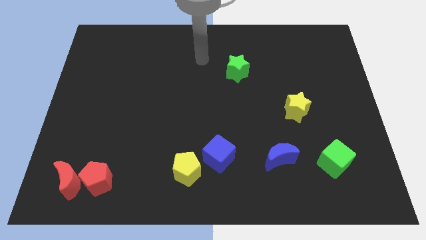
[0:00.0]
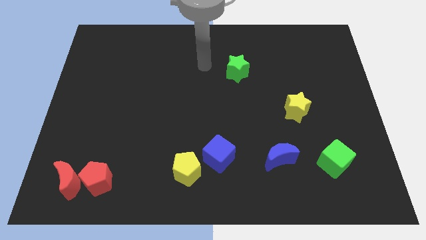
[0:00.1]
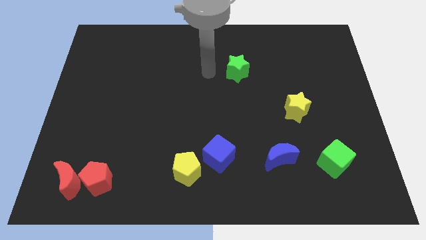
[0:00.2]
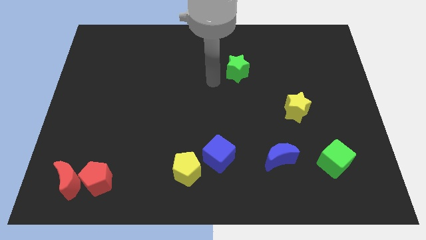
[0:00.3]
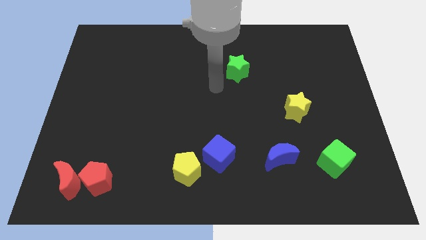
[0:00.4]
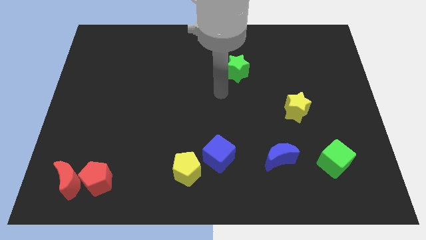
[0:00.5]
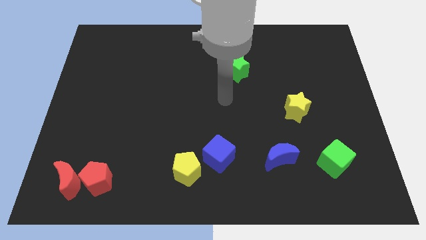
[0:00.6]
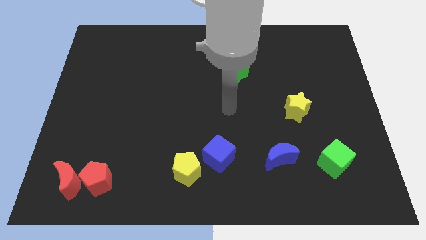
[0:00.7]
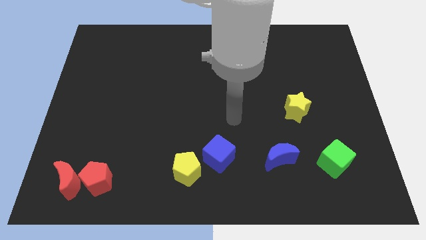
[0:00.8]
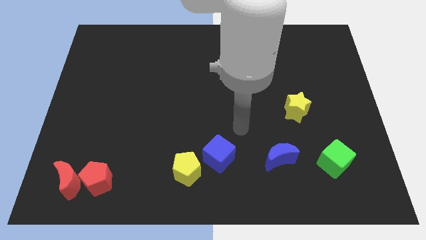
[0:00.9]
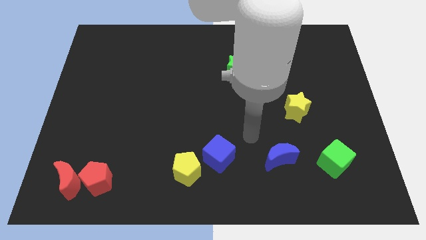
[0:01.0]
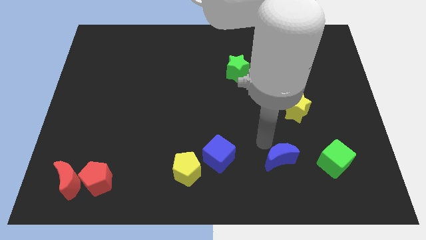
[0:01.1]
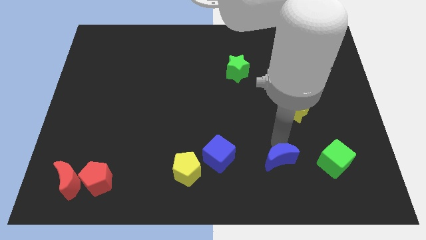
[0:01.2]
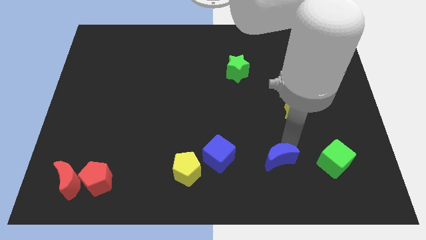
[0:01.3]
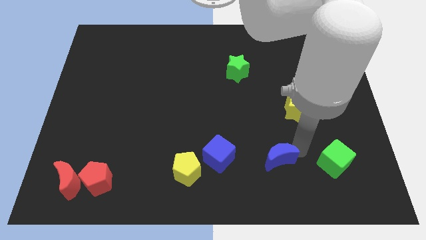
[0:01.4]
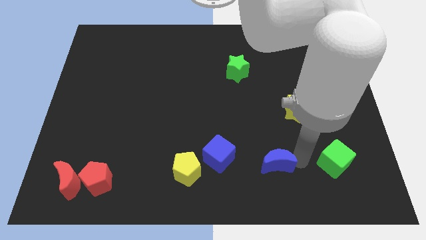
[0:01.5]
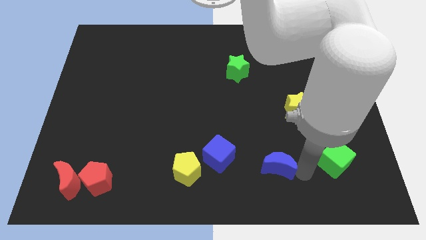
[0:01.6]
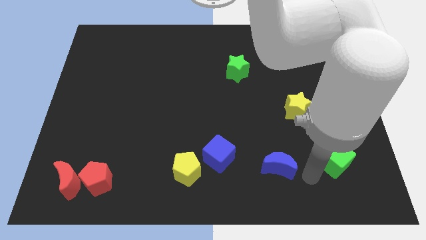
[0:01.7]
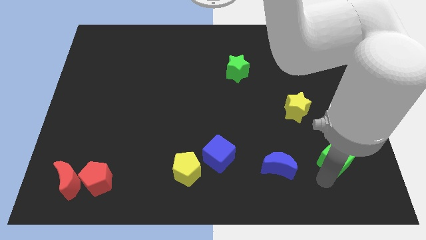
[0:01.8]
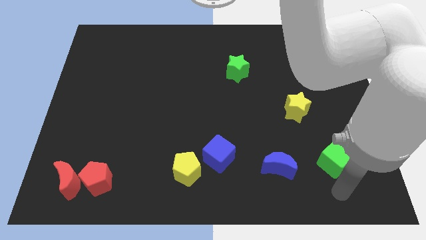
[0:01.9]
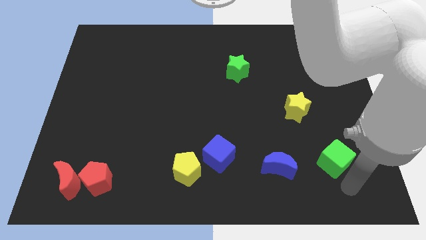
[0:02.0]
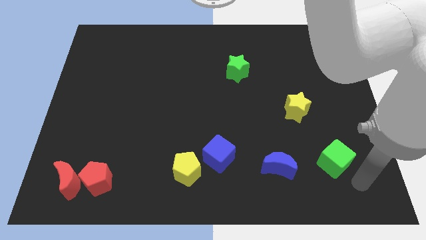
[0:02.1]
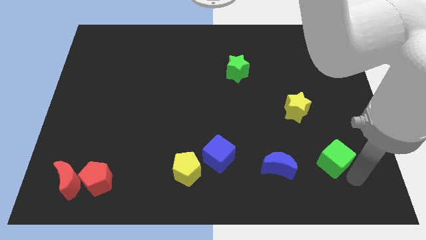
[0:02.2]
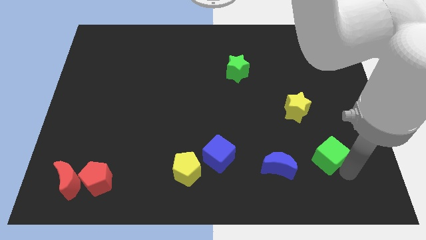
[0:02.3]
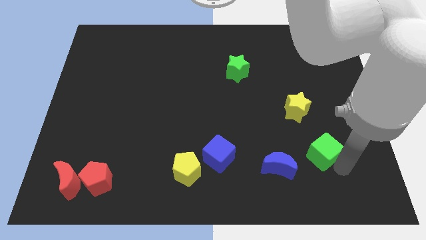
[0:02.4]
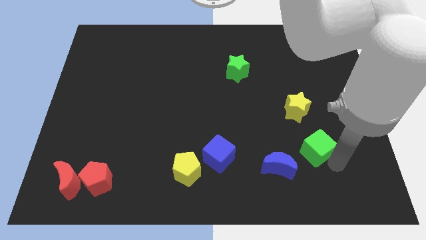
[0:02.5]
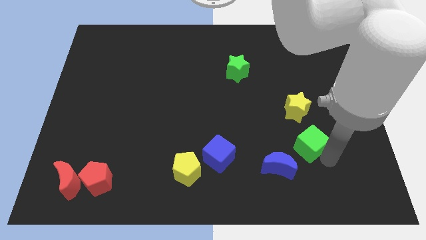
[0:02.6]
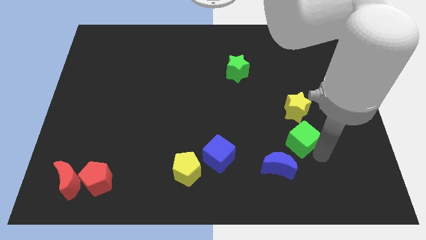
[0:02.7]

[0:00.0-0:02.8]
move the green cube slightly up and to the left diagonally

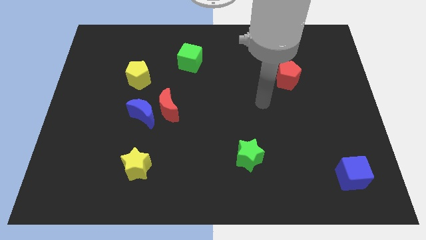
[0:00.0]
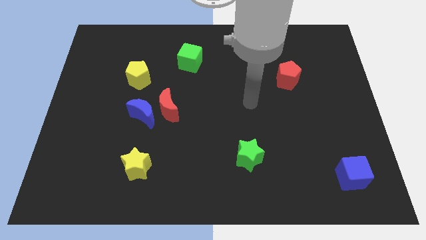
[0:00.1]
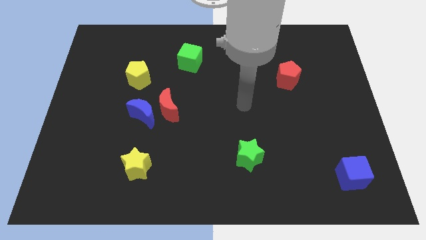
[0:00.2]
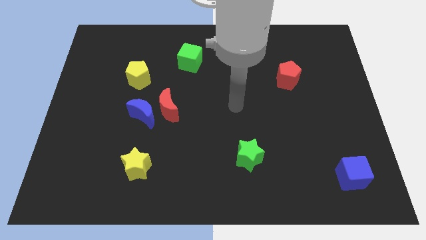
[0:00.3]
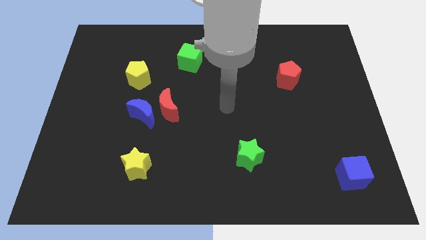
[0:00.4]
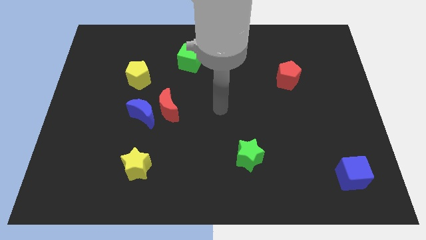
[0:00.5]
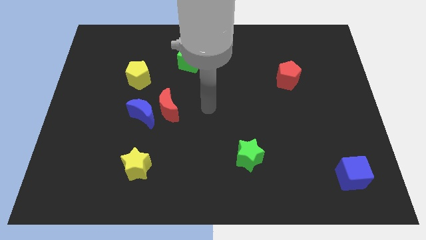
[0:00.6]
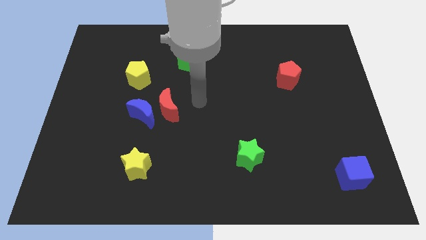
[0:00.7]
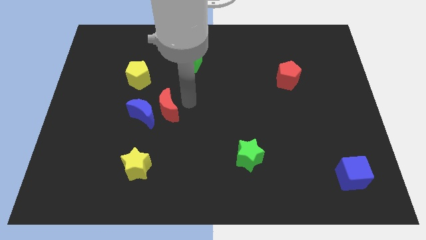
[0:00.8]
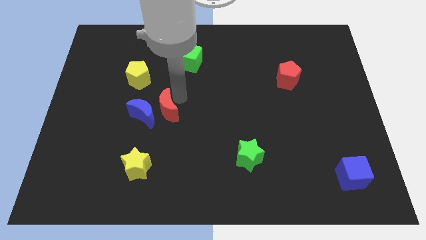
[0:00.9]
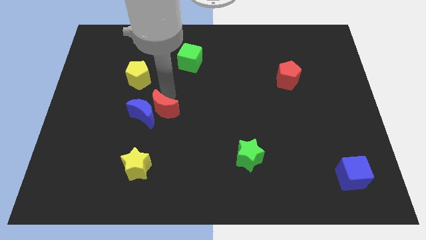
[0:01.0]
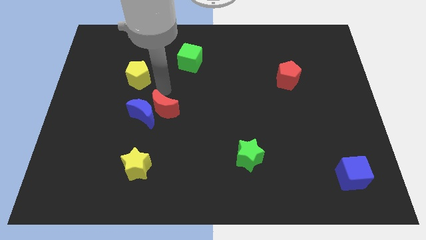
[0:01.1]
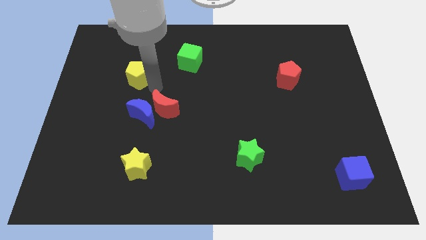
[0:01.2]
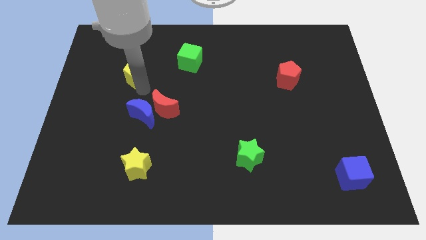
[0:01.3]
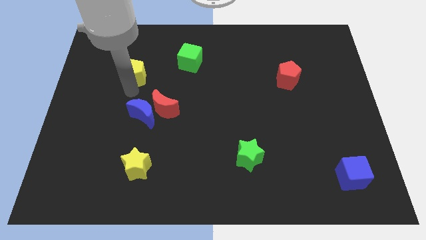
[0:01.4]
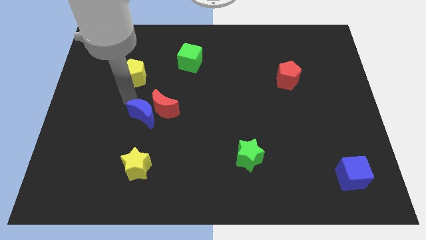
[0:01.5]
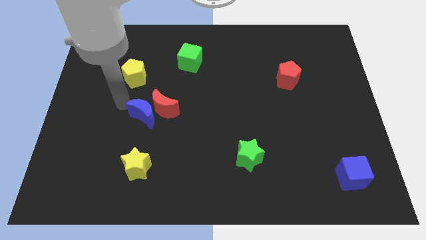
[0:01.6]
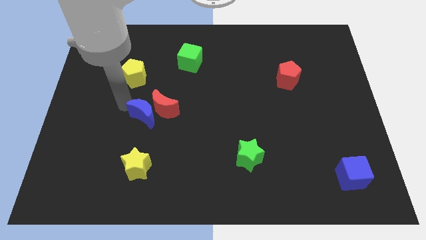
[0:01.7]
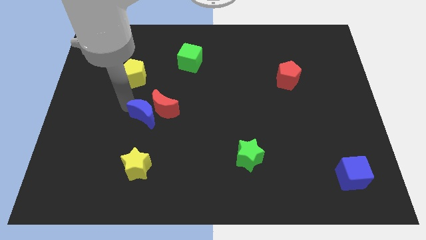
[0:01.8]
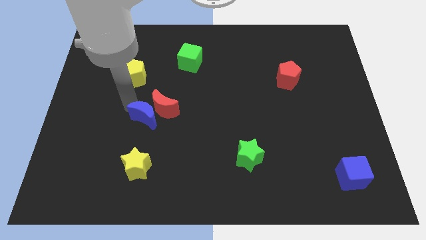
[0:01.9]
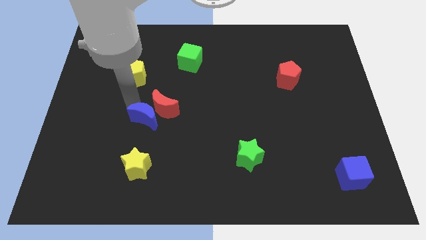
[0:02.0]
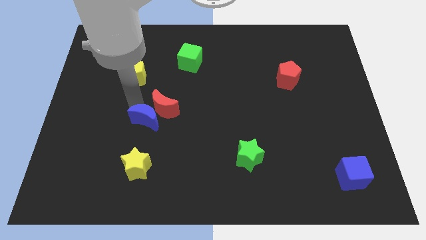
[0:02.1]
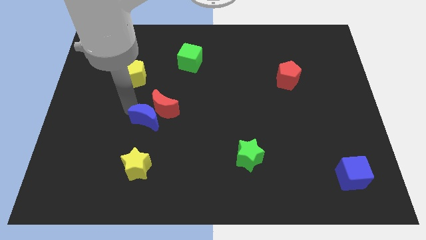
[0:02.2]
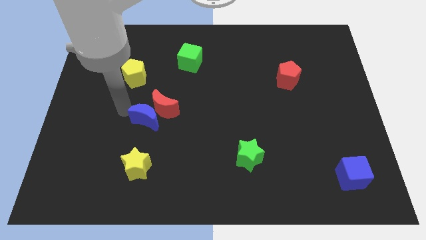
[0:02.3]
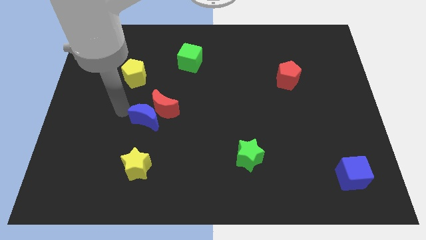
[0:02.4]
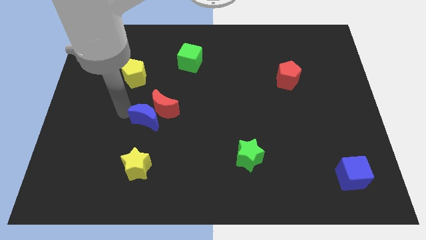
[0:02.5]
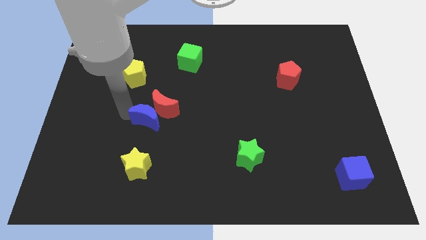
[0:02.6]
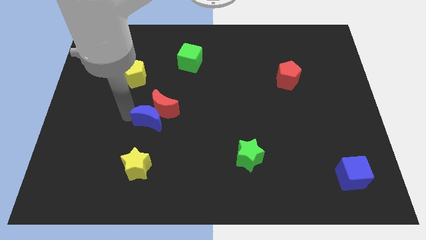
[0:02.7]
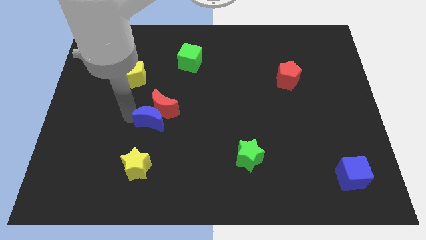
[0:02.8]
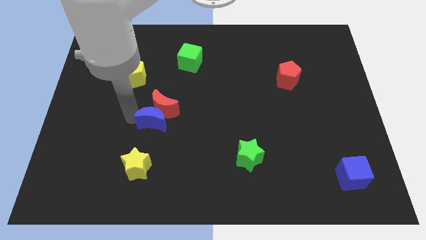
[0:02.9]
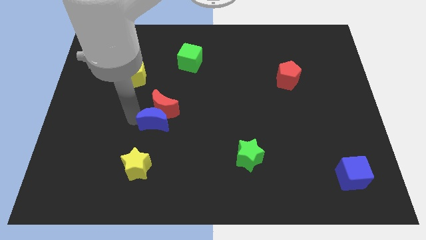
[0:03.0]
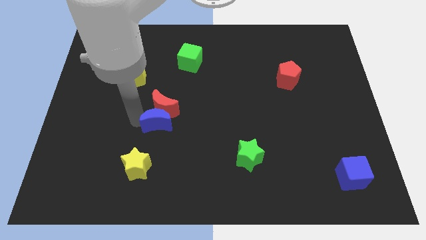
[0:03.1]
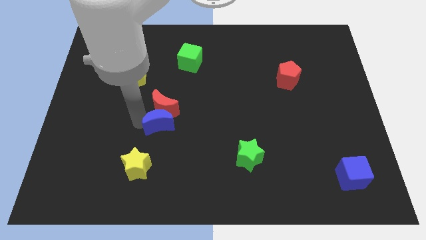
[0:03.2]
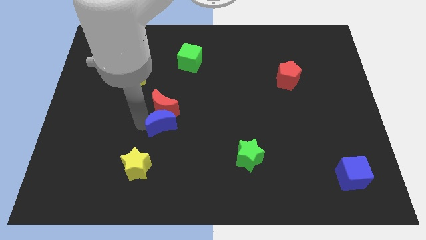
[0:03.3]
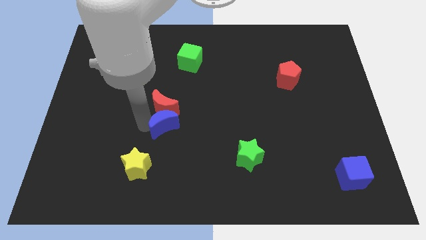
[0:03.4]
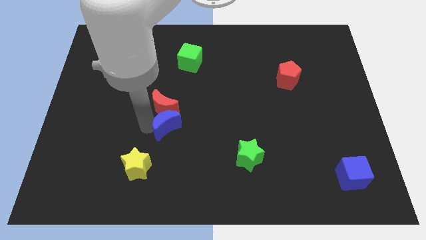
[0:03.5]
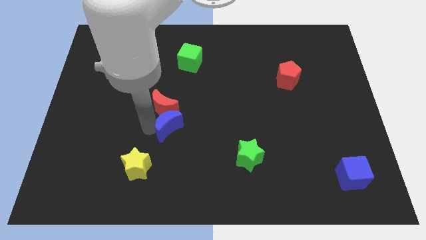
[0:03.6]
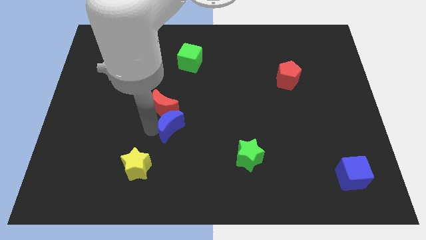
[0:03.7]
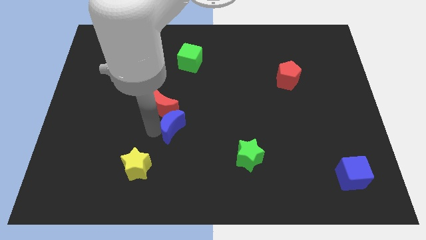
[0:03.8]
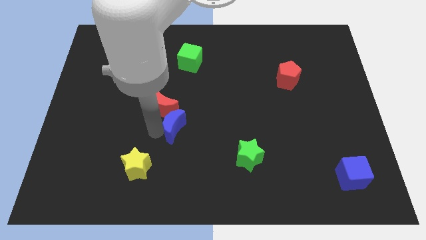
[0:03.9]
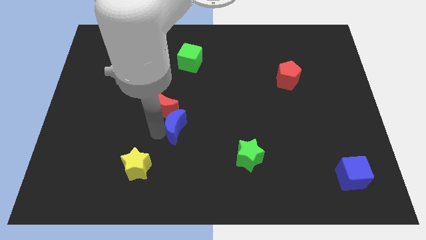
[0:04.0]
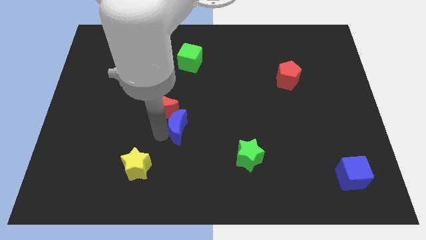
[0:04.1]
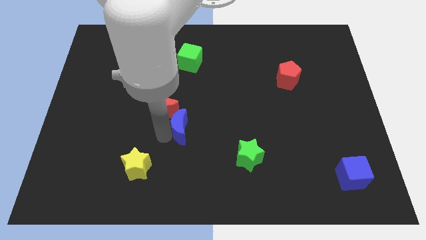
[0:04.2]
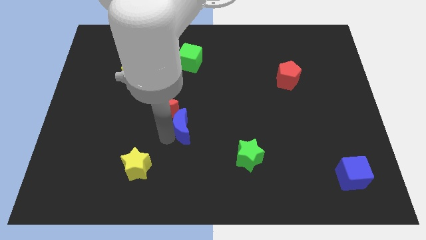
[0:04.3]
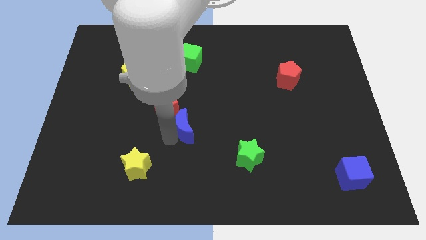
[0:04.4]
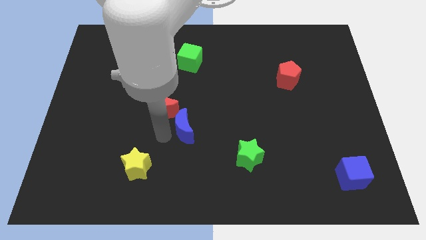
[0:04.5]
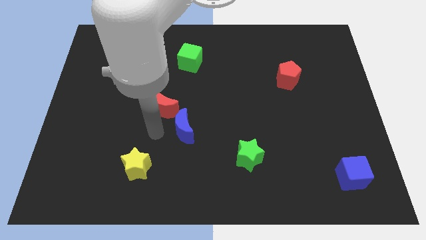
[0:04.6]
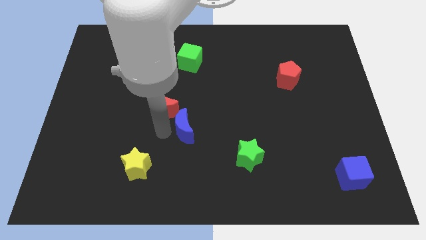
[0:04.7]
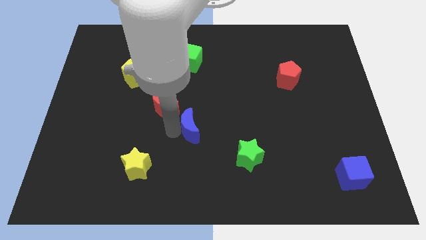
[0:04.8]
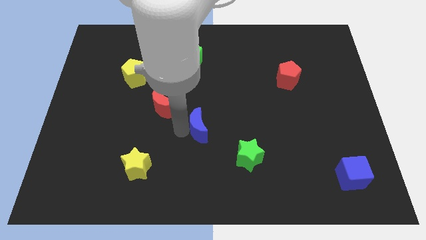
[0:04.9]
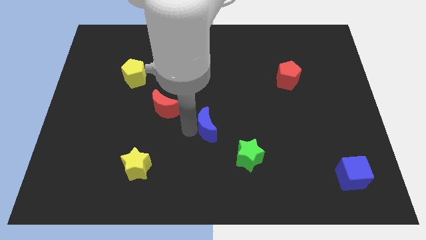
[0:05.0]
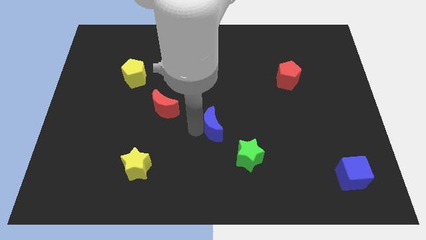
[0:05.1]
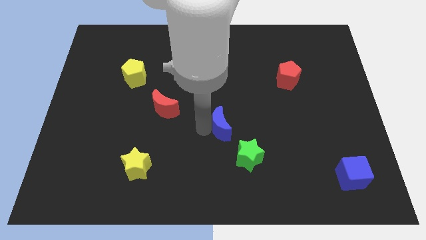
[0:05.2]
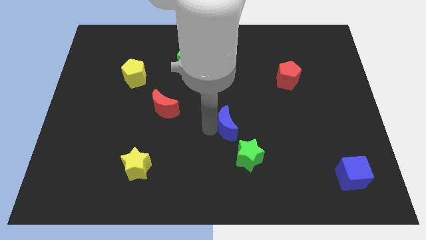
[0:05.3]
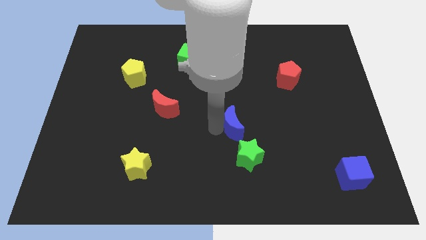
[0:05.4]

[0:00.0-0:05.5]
push the blue moon right
